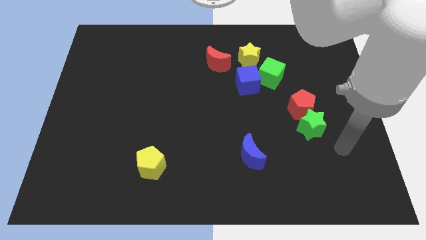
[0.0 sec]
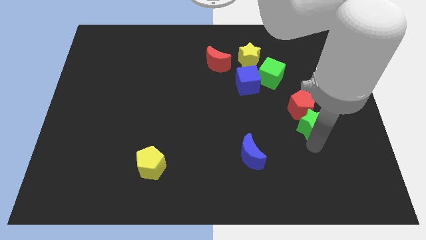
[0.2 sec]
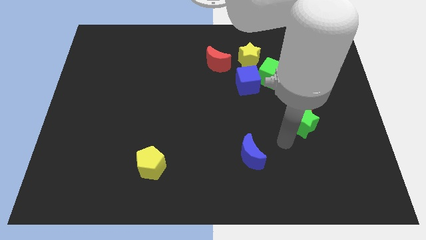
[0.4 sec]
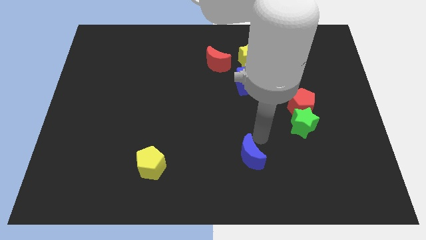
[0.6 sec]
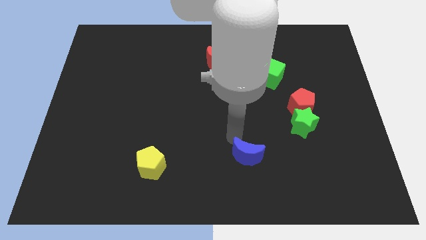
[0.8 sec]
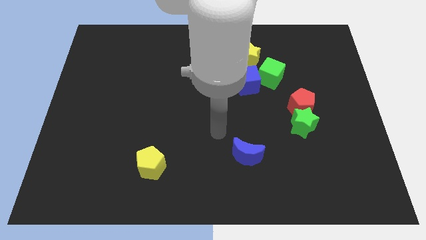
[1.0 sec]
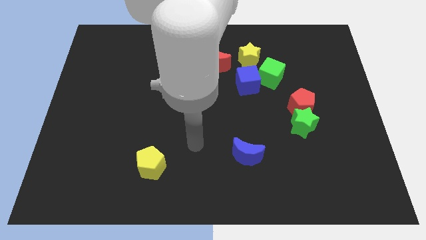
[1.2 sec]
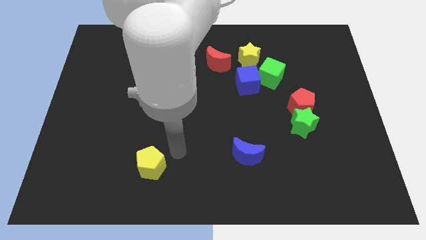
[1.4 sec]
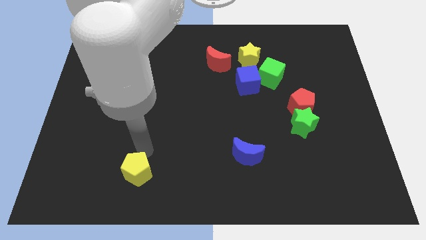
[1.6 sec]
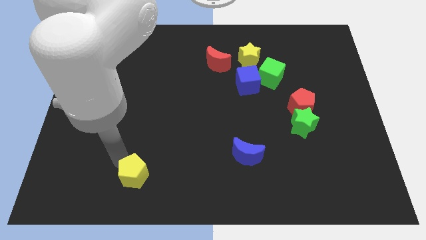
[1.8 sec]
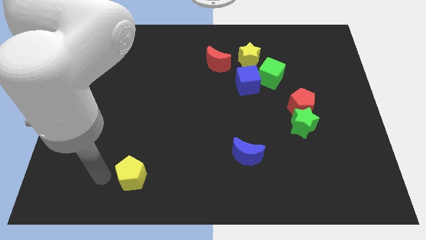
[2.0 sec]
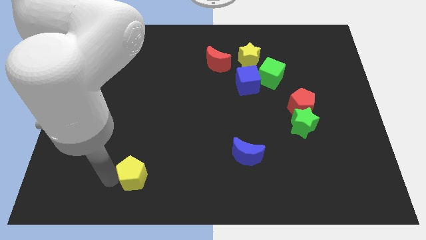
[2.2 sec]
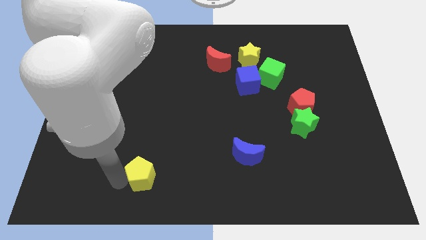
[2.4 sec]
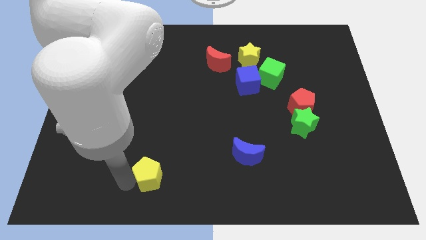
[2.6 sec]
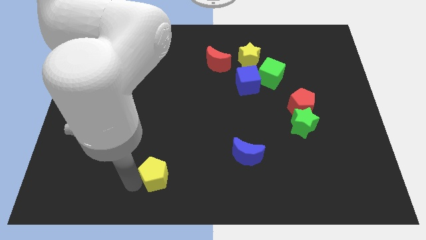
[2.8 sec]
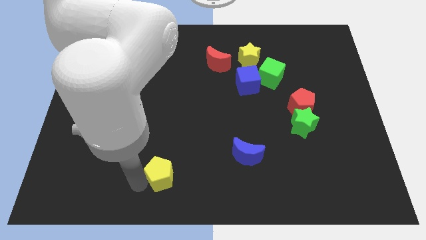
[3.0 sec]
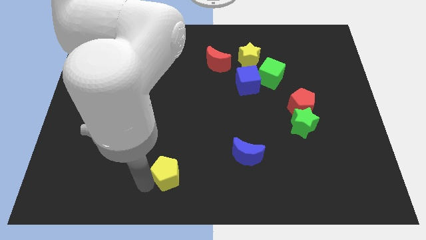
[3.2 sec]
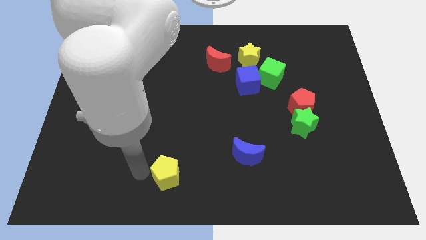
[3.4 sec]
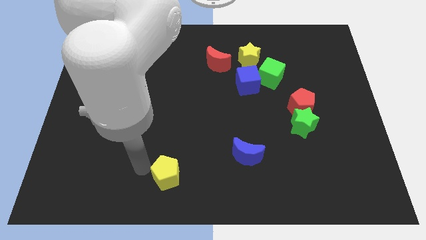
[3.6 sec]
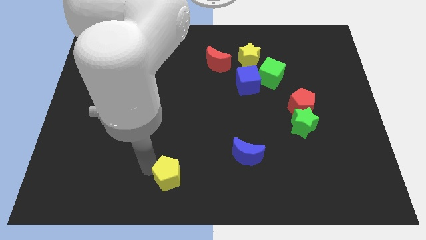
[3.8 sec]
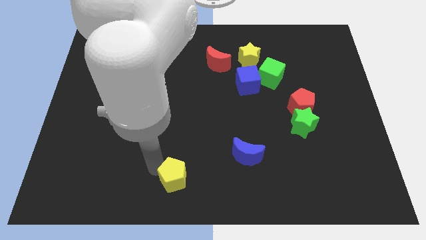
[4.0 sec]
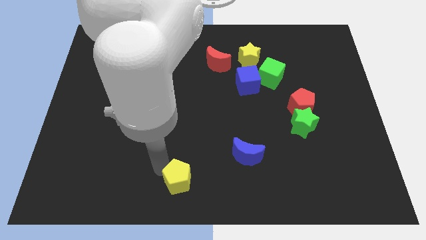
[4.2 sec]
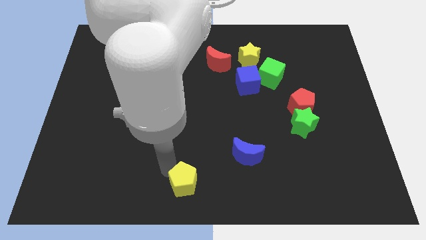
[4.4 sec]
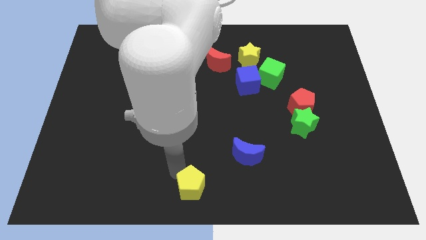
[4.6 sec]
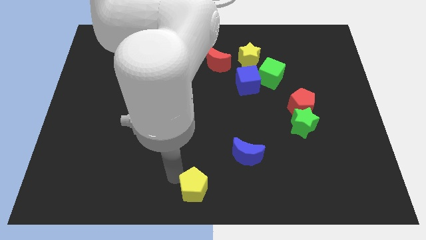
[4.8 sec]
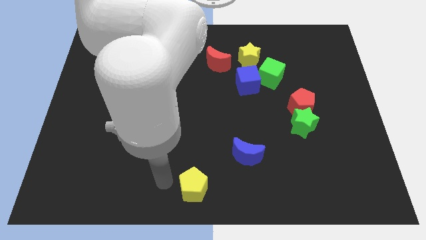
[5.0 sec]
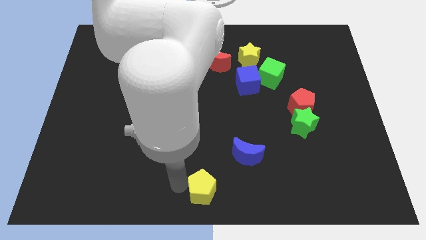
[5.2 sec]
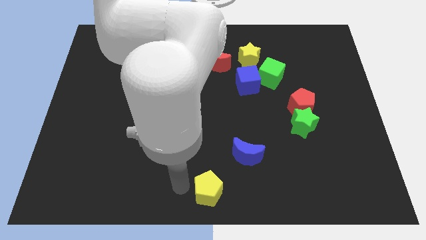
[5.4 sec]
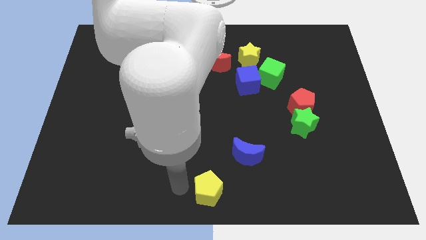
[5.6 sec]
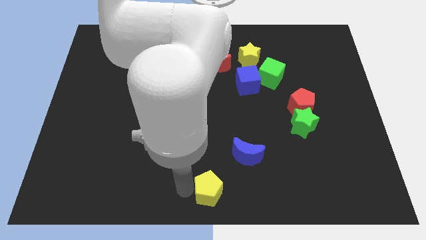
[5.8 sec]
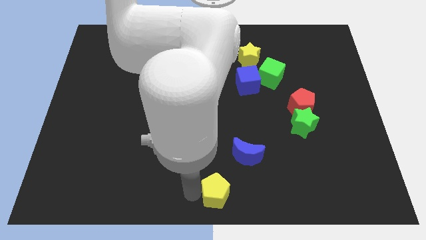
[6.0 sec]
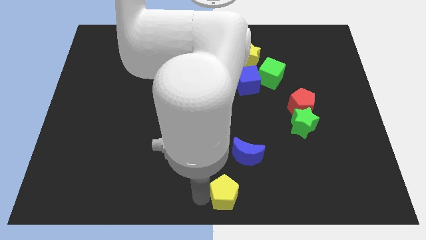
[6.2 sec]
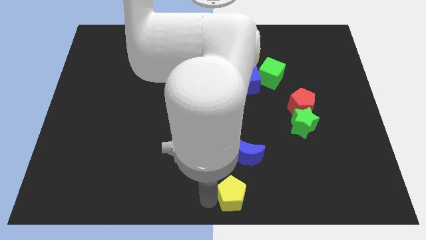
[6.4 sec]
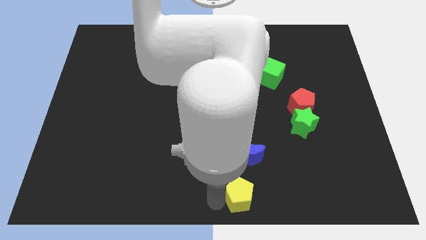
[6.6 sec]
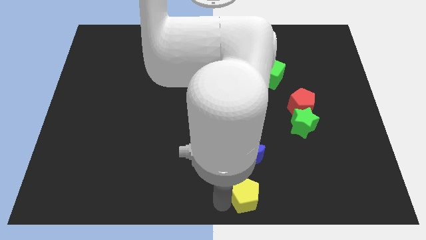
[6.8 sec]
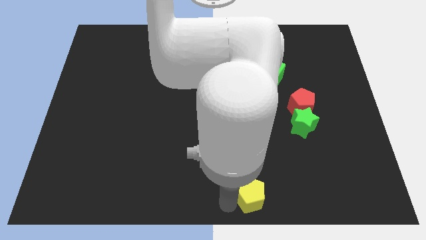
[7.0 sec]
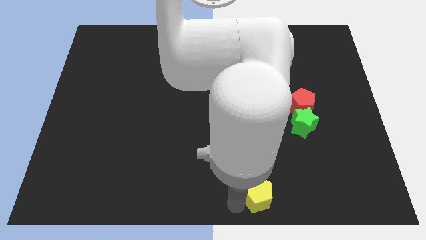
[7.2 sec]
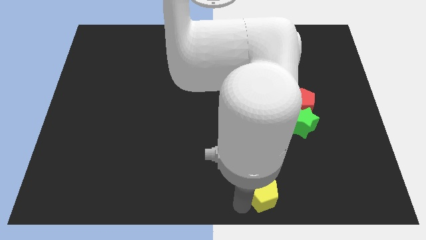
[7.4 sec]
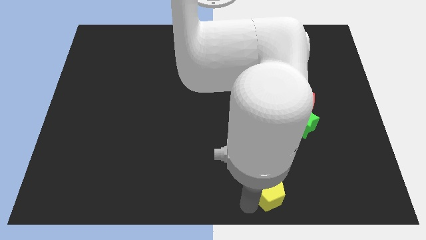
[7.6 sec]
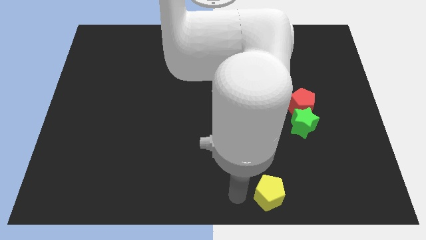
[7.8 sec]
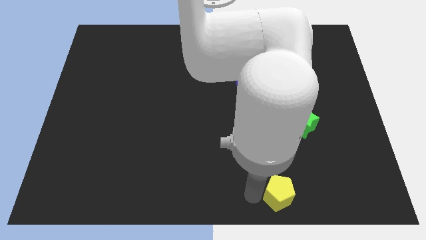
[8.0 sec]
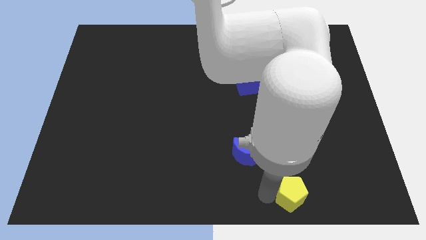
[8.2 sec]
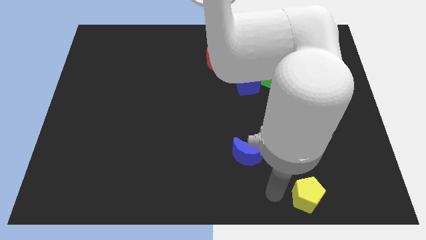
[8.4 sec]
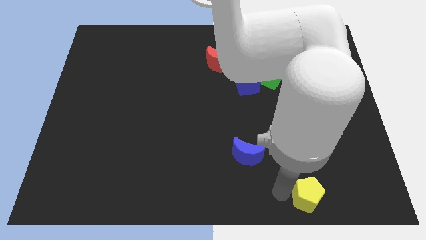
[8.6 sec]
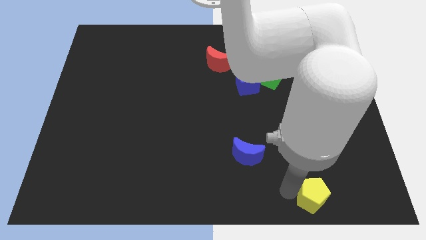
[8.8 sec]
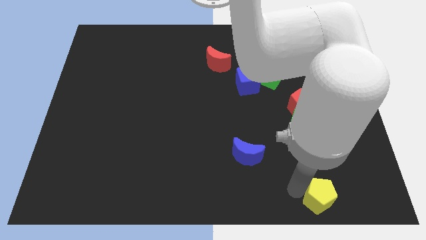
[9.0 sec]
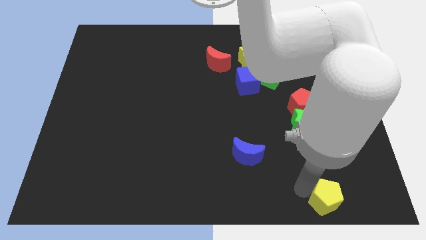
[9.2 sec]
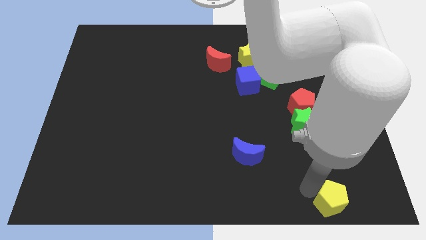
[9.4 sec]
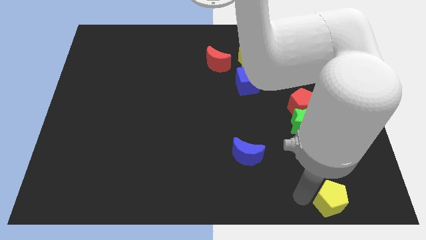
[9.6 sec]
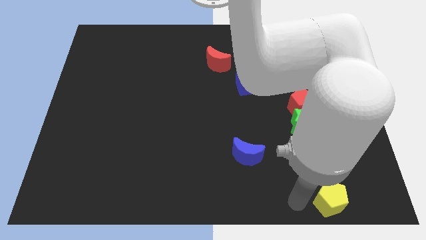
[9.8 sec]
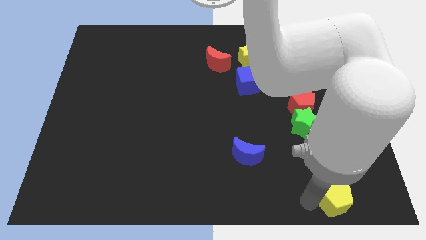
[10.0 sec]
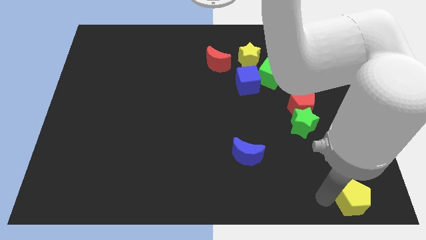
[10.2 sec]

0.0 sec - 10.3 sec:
put the yellow pentagon to the lower right corner

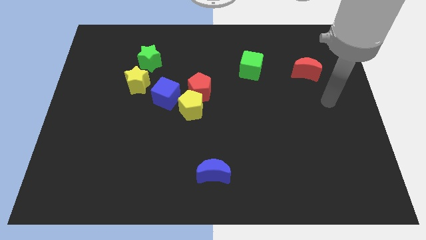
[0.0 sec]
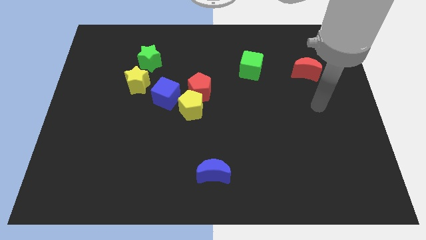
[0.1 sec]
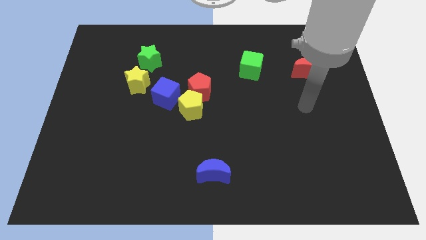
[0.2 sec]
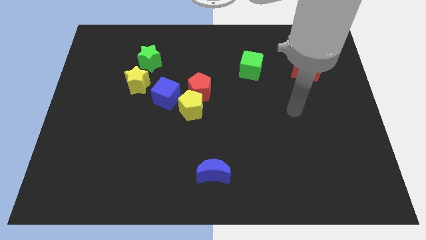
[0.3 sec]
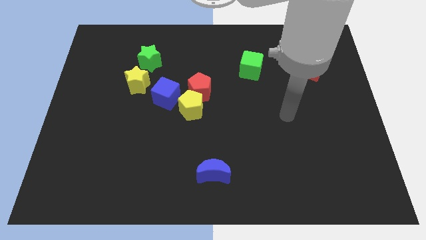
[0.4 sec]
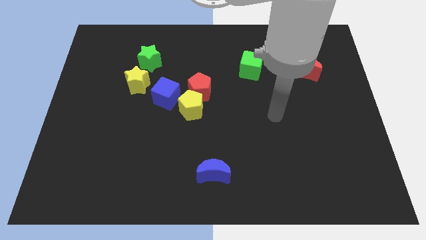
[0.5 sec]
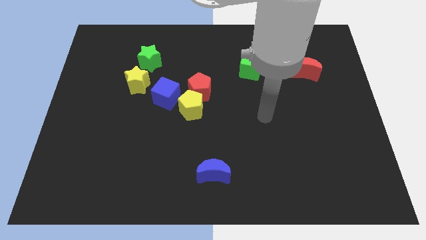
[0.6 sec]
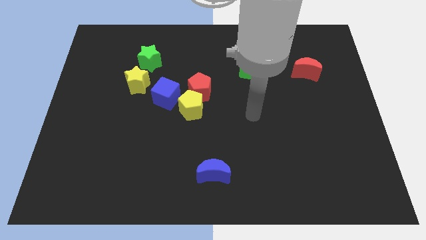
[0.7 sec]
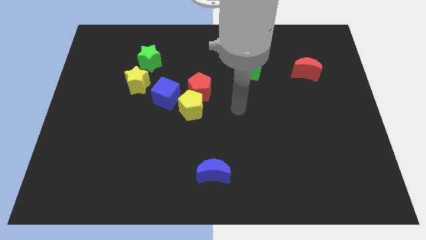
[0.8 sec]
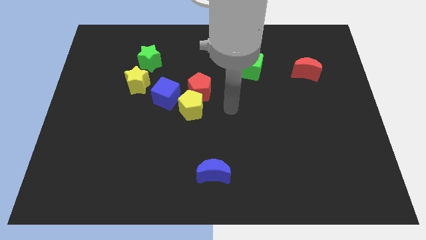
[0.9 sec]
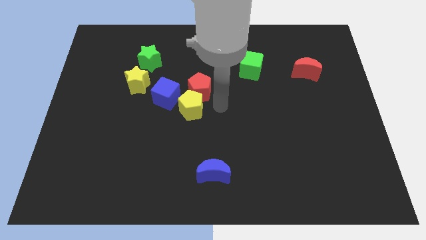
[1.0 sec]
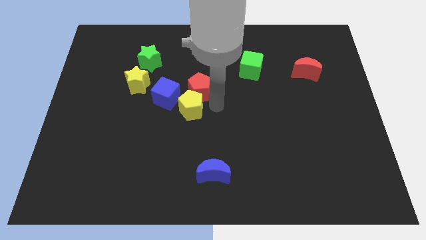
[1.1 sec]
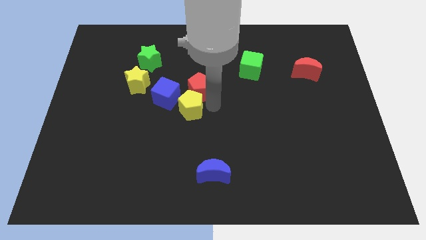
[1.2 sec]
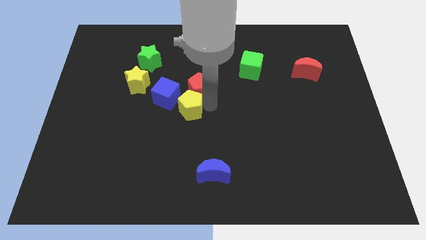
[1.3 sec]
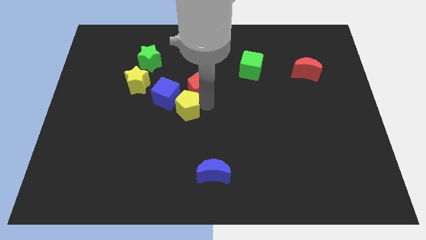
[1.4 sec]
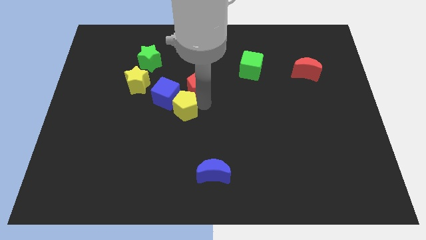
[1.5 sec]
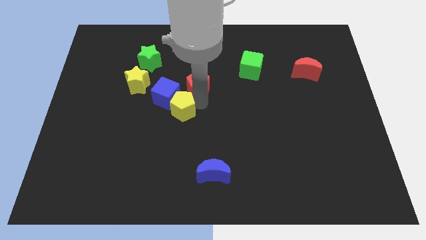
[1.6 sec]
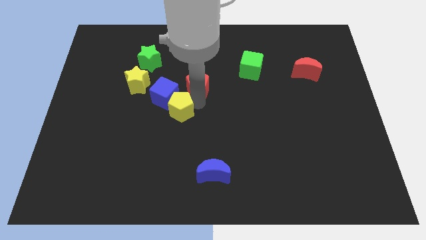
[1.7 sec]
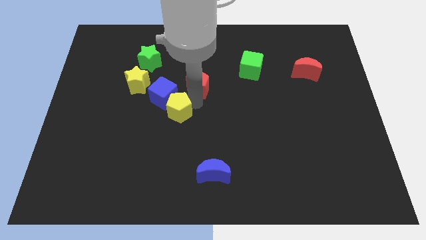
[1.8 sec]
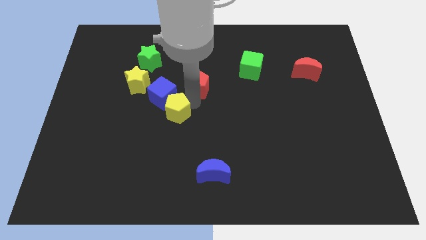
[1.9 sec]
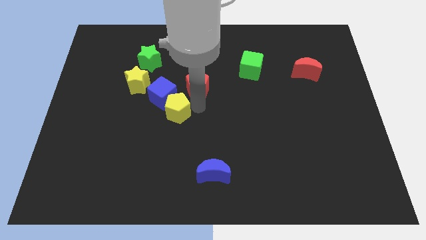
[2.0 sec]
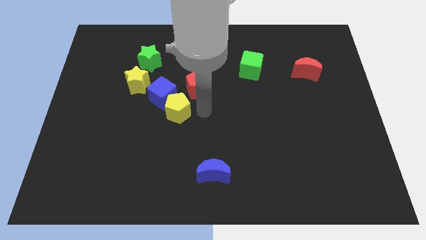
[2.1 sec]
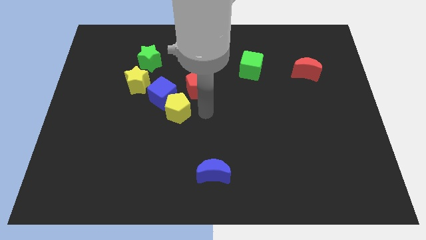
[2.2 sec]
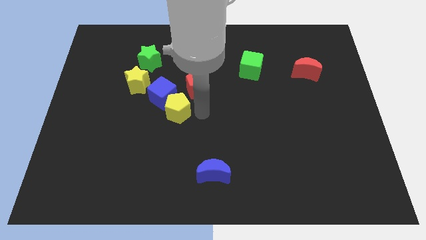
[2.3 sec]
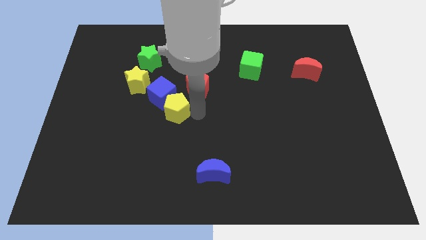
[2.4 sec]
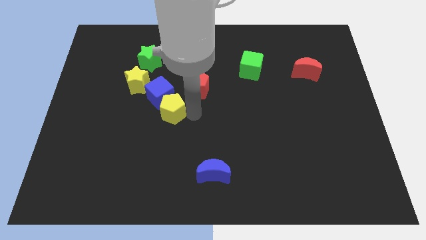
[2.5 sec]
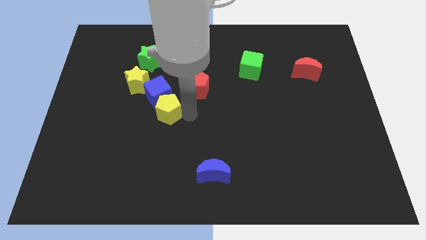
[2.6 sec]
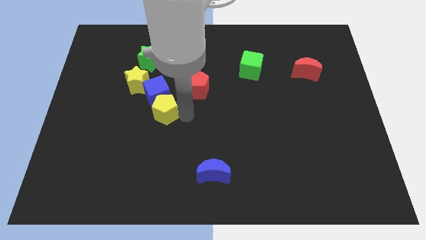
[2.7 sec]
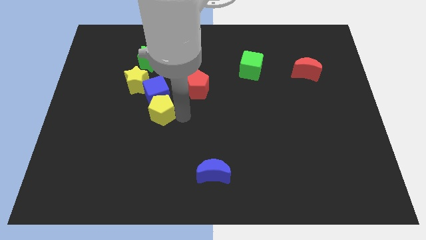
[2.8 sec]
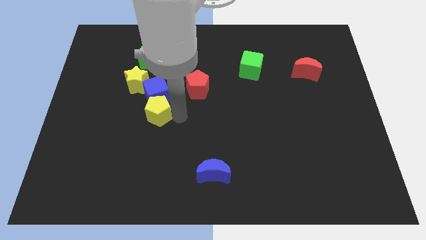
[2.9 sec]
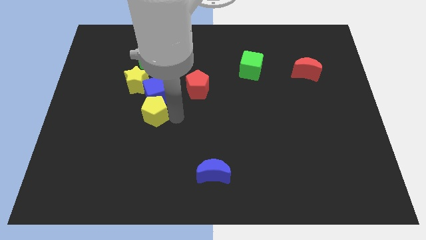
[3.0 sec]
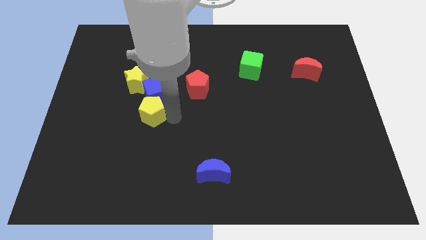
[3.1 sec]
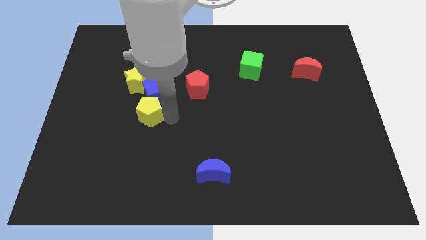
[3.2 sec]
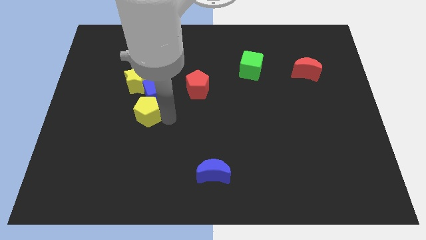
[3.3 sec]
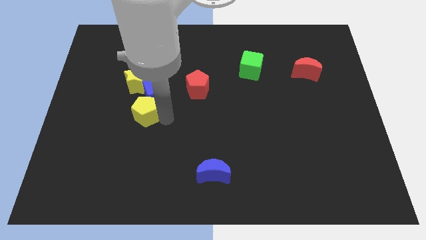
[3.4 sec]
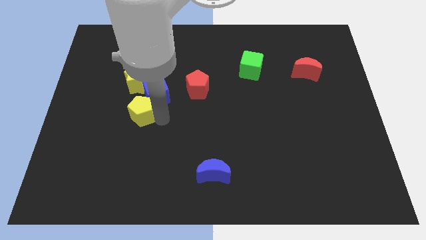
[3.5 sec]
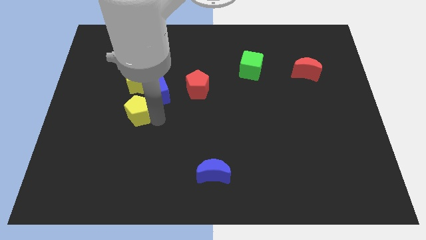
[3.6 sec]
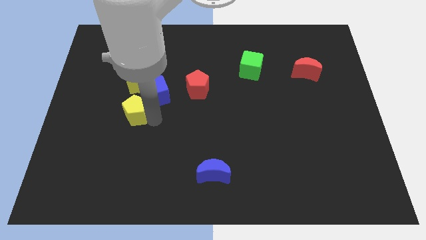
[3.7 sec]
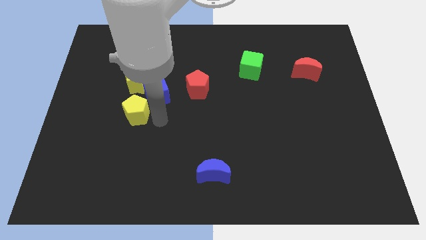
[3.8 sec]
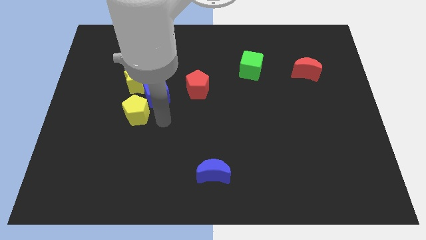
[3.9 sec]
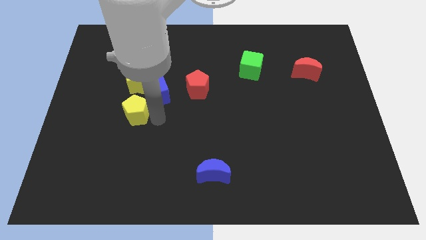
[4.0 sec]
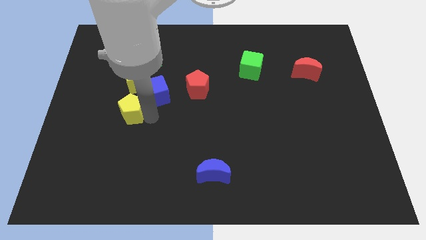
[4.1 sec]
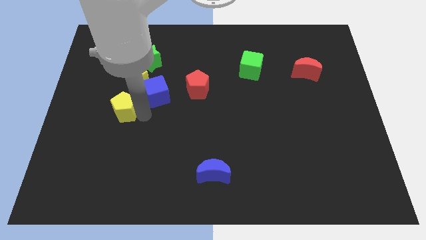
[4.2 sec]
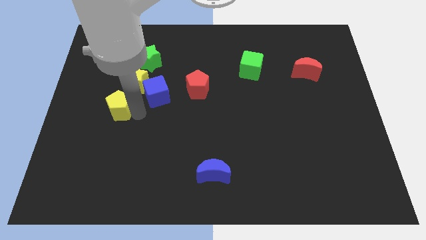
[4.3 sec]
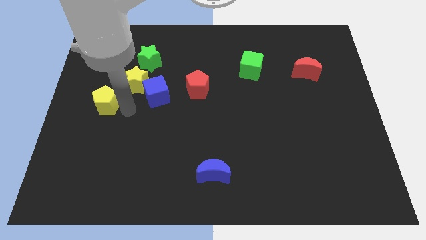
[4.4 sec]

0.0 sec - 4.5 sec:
move the yellow pentagon to the left side of the board
